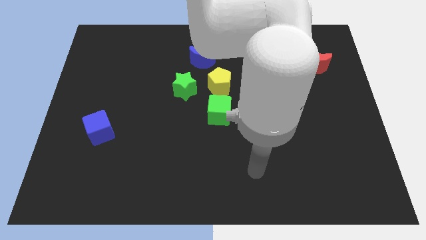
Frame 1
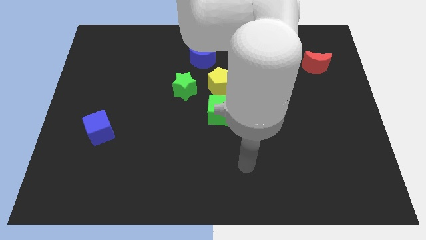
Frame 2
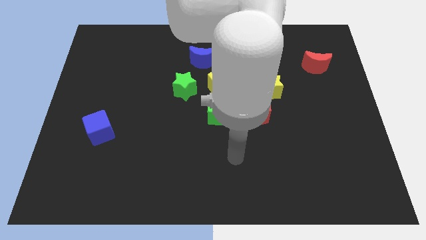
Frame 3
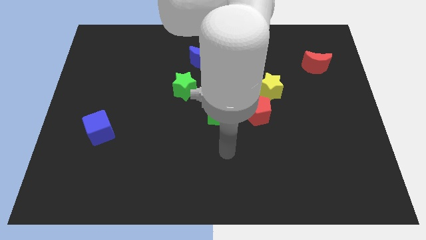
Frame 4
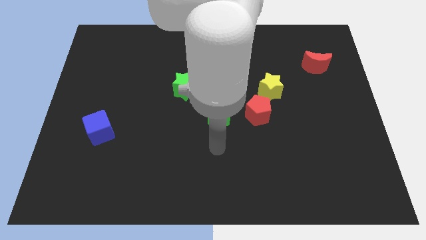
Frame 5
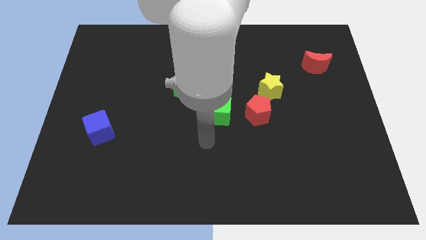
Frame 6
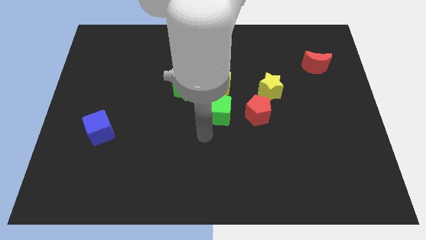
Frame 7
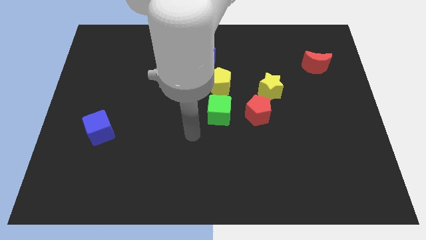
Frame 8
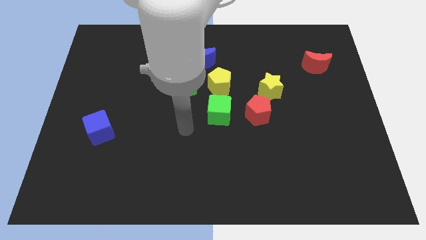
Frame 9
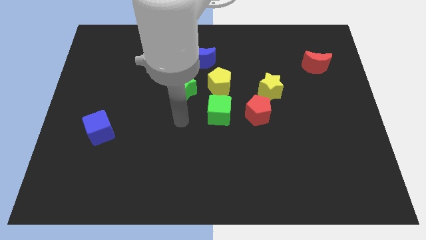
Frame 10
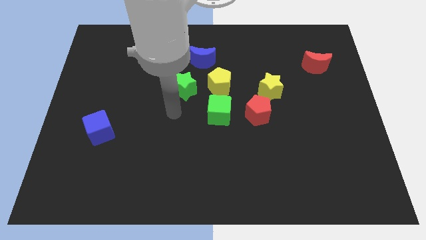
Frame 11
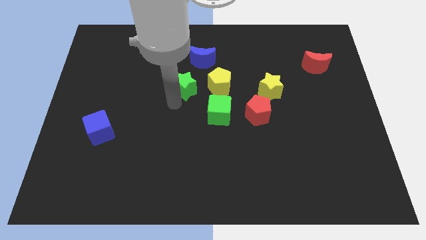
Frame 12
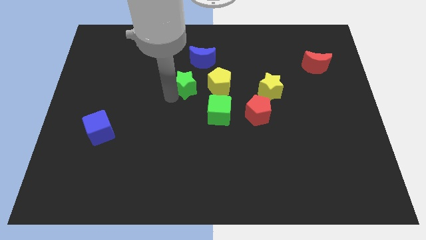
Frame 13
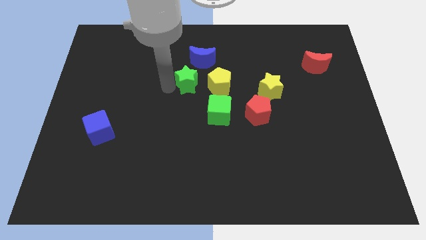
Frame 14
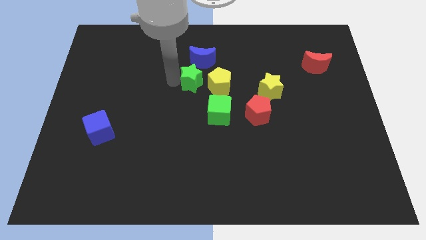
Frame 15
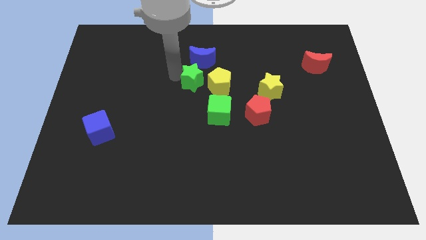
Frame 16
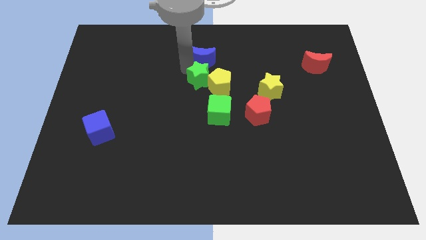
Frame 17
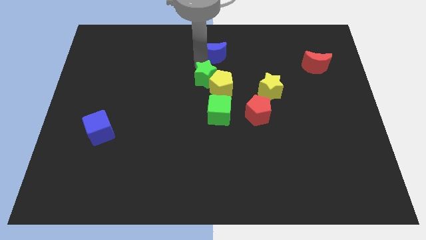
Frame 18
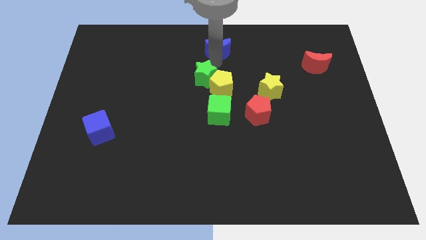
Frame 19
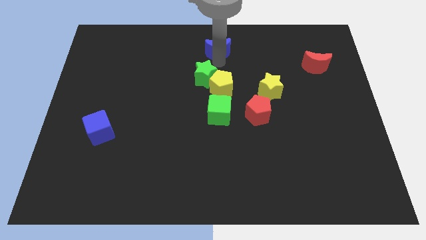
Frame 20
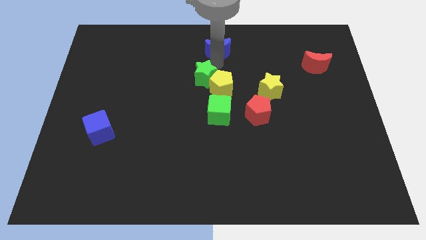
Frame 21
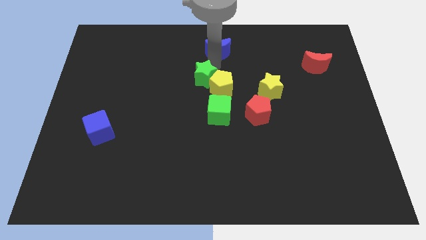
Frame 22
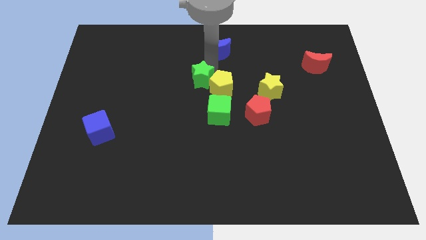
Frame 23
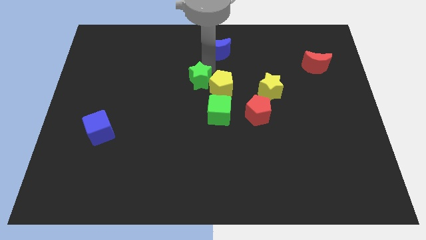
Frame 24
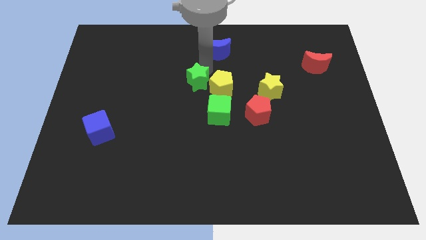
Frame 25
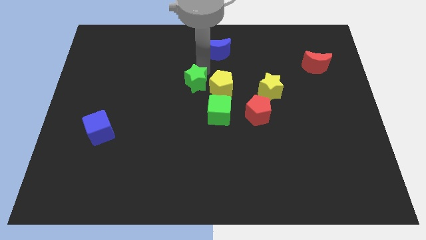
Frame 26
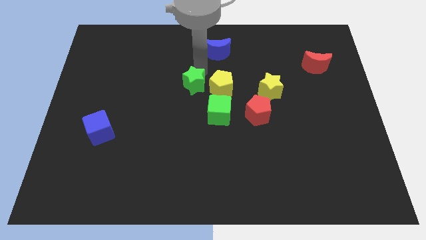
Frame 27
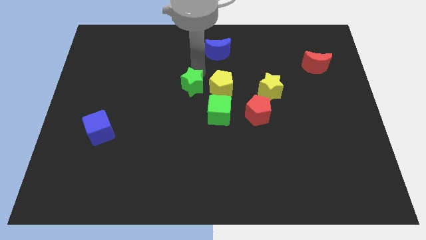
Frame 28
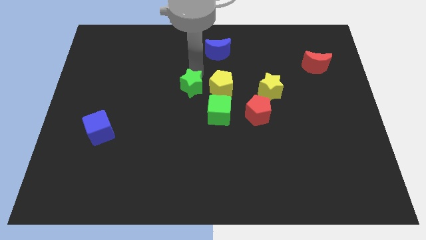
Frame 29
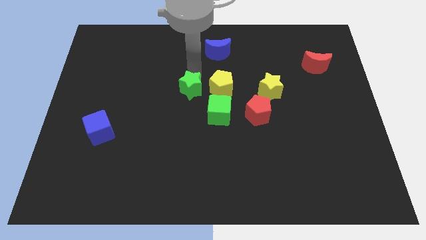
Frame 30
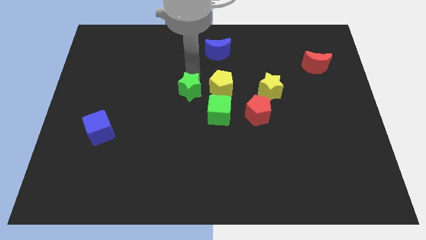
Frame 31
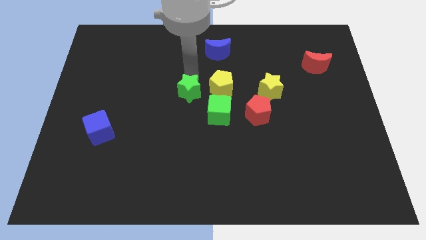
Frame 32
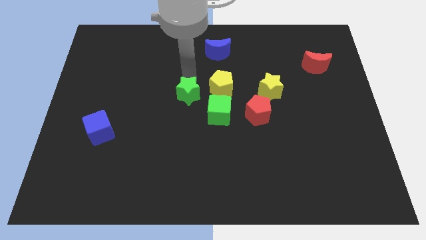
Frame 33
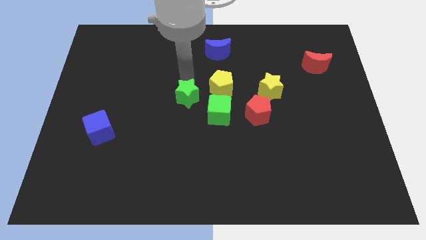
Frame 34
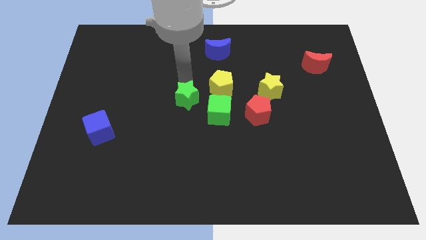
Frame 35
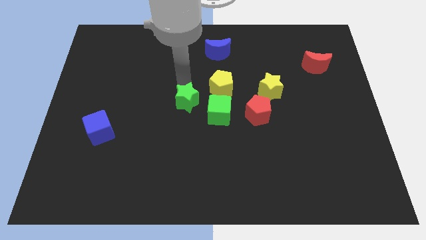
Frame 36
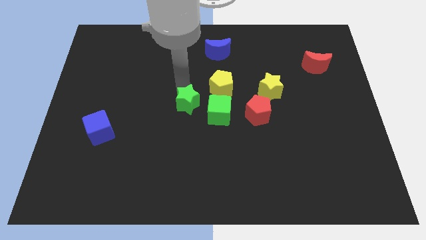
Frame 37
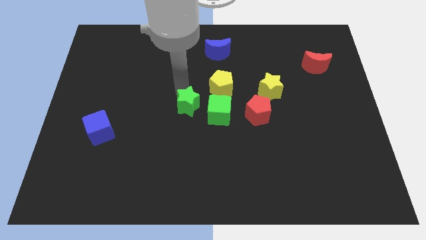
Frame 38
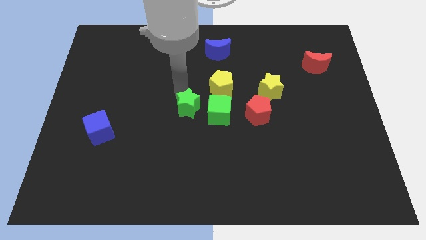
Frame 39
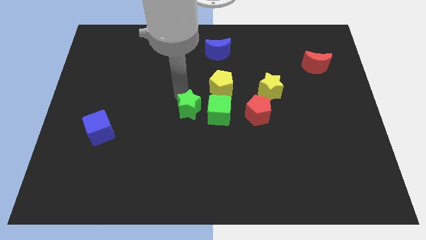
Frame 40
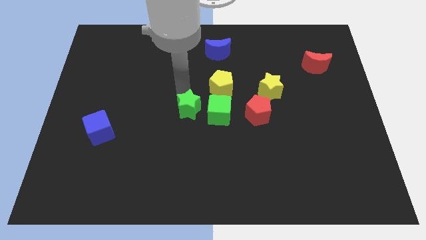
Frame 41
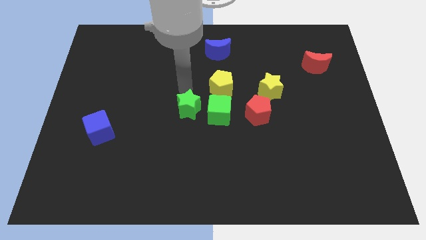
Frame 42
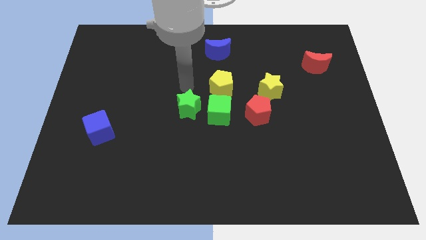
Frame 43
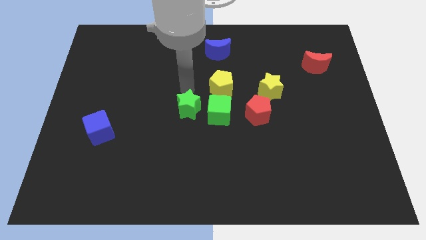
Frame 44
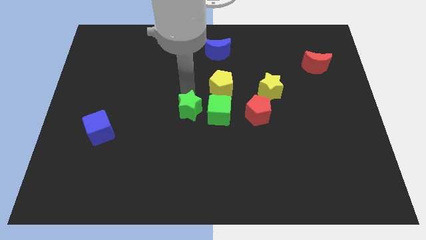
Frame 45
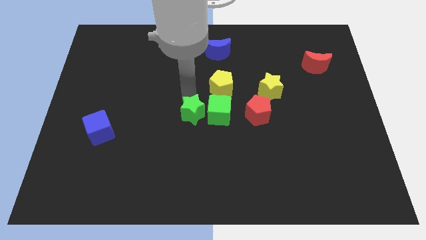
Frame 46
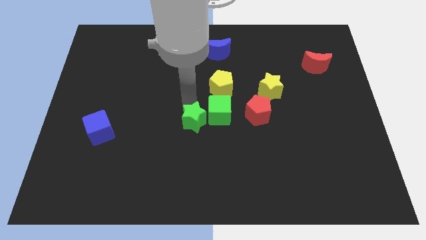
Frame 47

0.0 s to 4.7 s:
slightly push the green star down and to the right

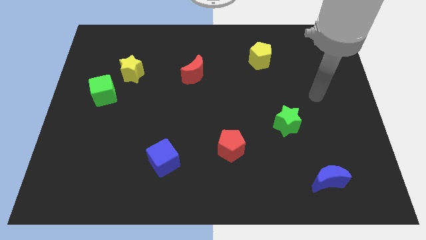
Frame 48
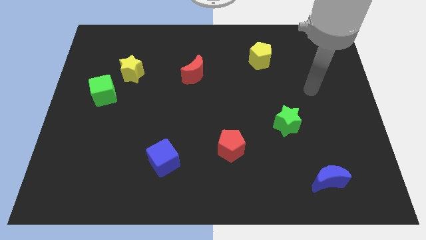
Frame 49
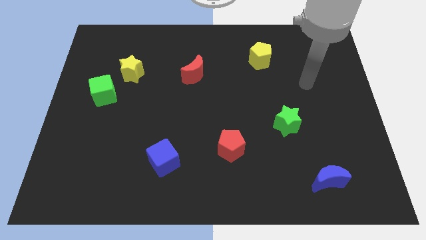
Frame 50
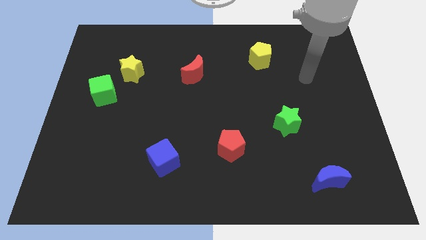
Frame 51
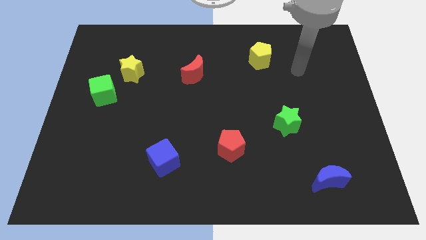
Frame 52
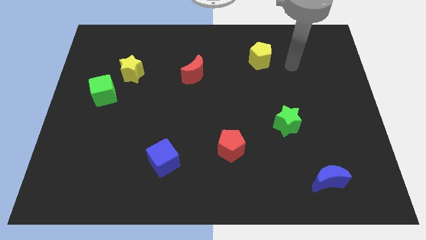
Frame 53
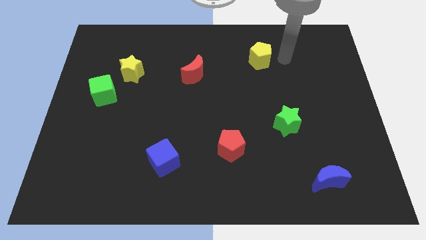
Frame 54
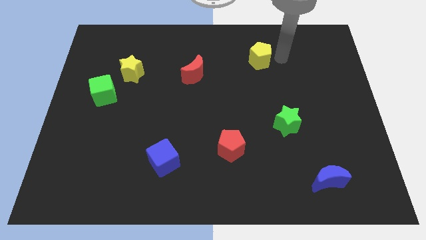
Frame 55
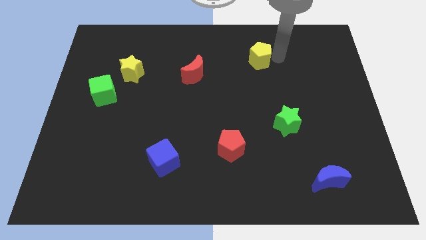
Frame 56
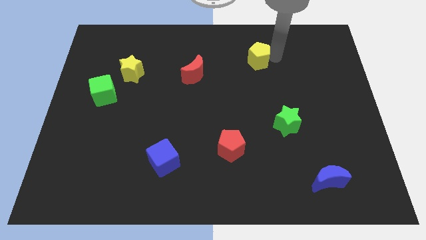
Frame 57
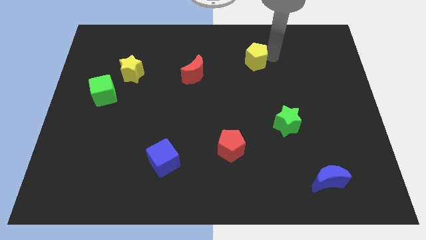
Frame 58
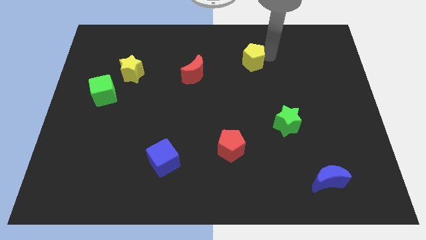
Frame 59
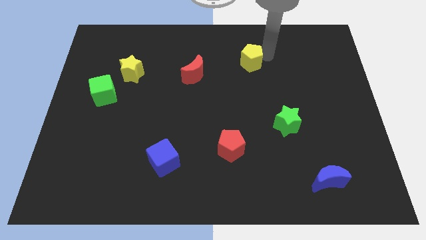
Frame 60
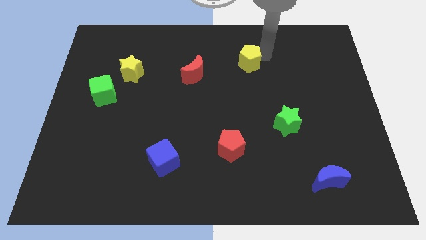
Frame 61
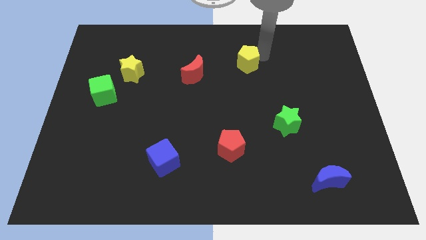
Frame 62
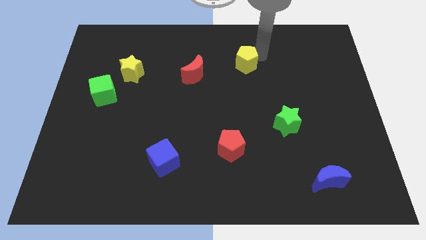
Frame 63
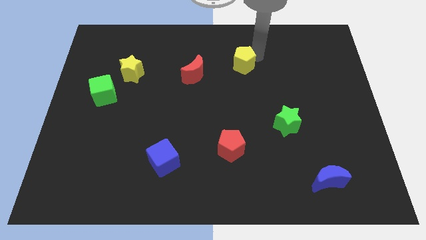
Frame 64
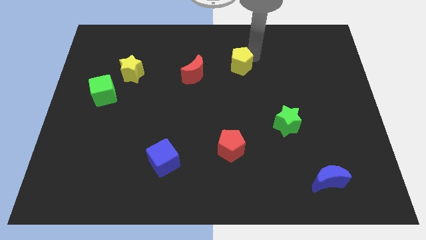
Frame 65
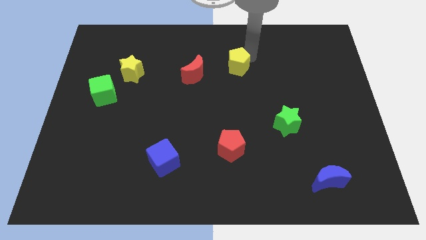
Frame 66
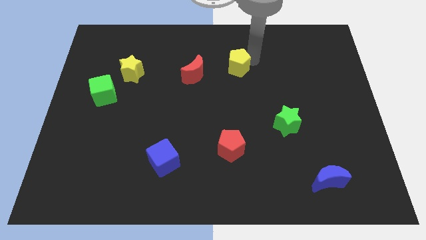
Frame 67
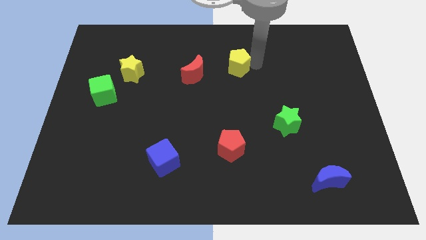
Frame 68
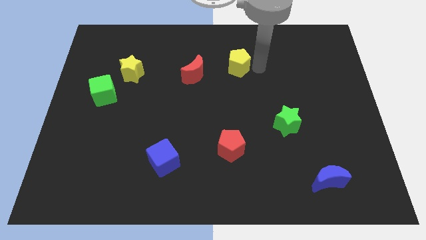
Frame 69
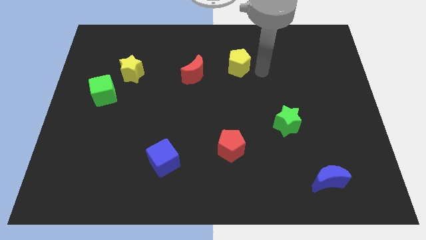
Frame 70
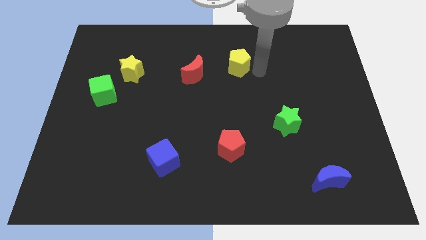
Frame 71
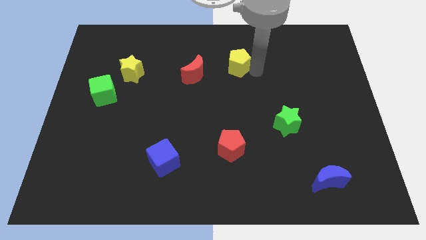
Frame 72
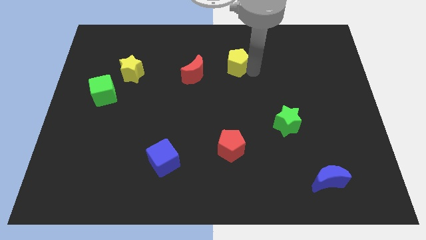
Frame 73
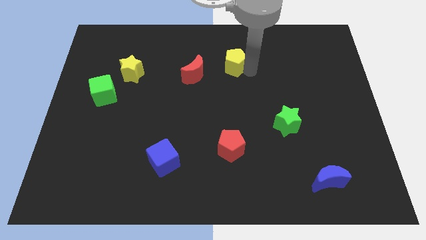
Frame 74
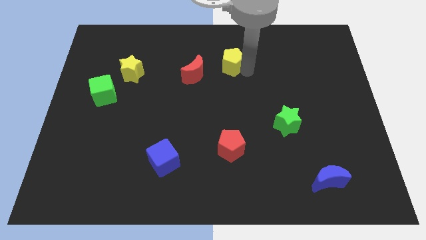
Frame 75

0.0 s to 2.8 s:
slightly move the yellow pentagon left

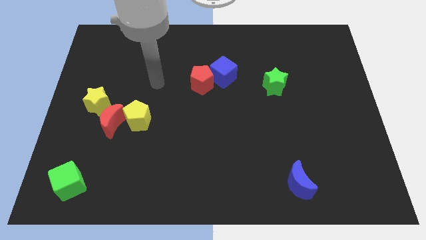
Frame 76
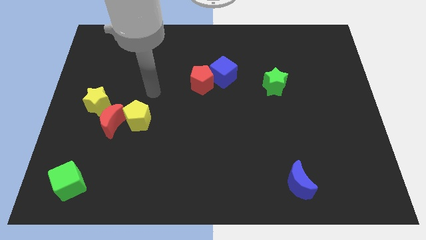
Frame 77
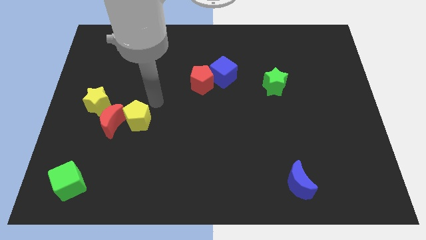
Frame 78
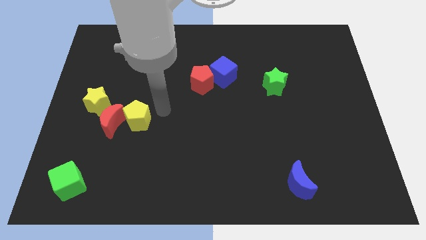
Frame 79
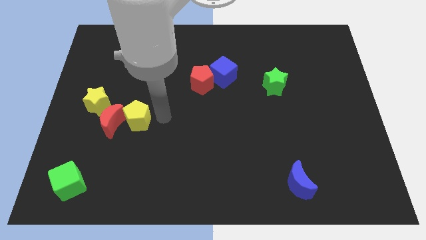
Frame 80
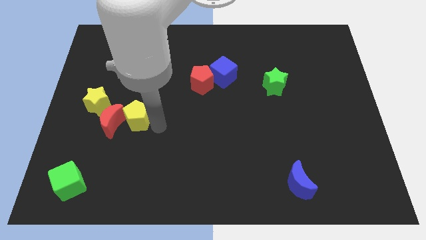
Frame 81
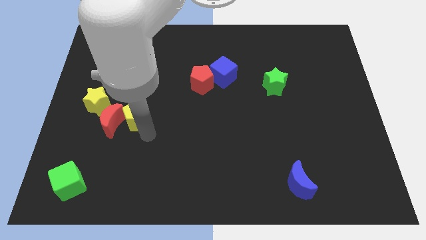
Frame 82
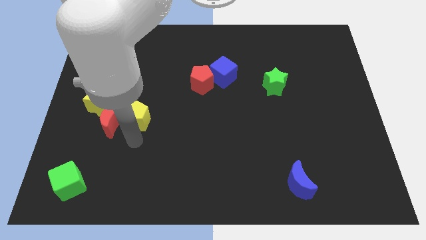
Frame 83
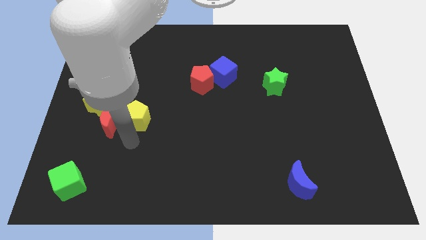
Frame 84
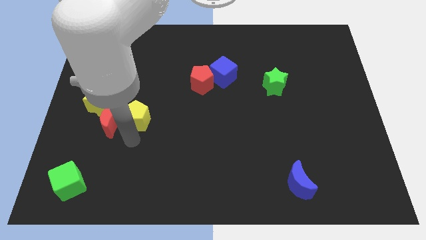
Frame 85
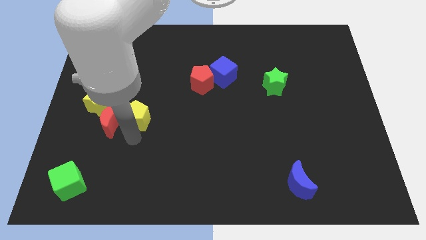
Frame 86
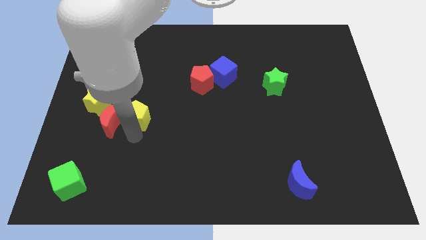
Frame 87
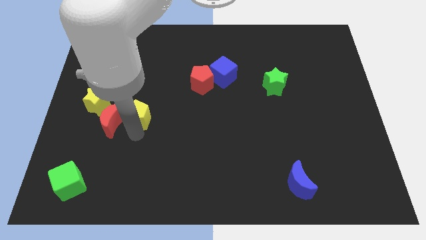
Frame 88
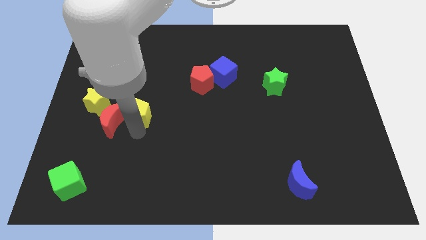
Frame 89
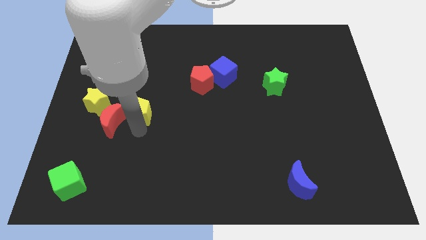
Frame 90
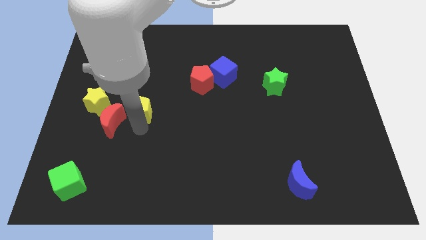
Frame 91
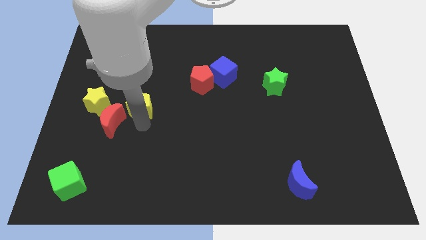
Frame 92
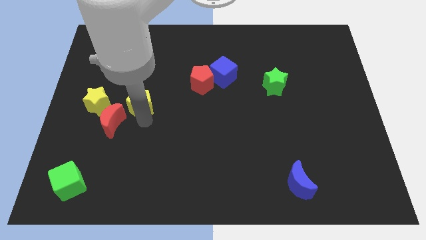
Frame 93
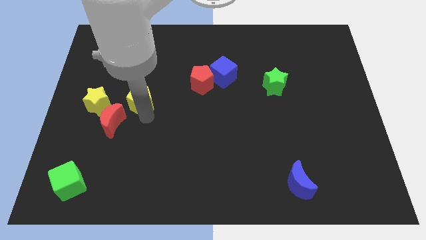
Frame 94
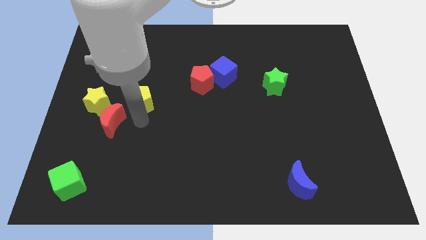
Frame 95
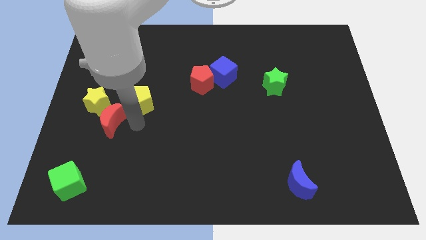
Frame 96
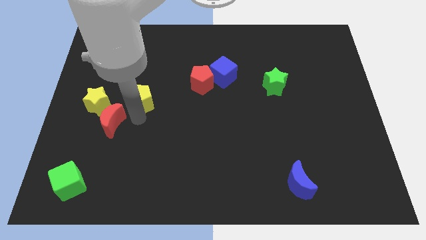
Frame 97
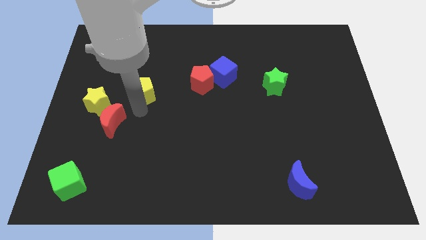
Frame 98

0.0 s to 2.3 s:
slightly slide the yellow pentagon up
